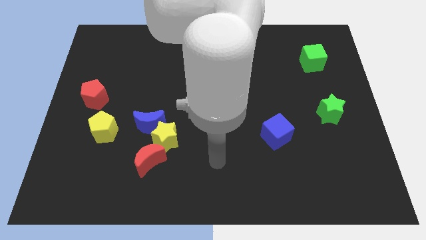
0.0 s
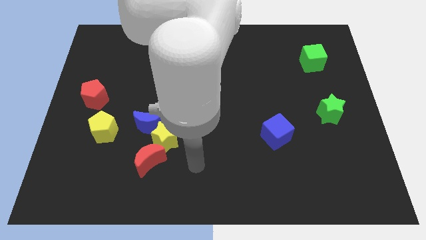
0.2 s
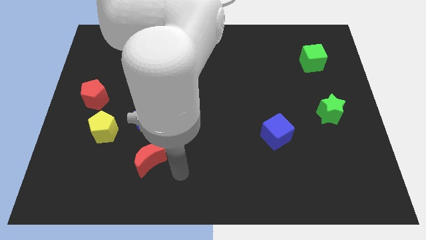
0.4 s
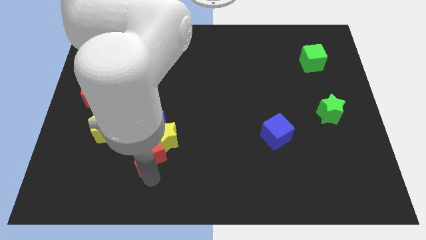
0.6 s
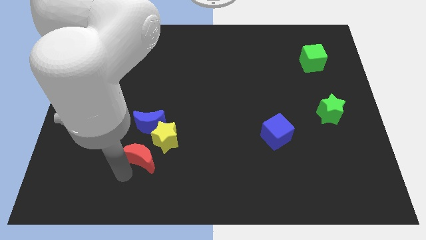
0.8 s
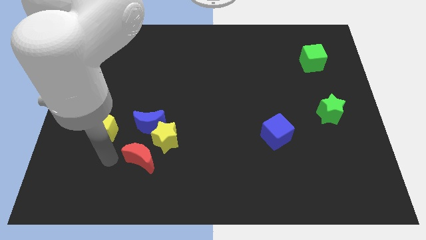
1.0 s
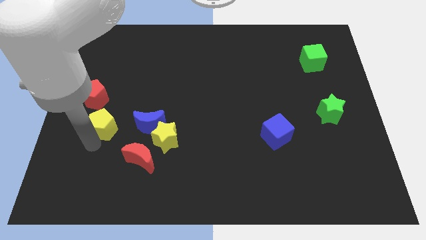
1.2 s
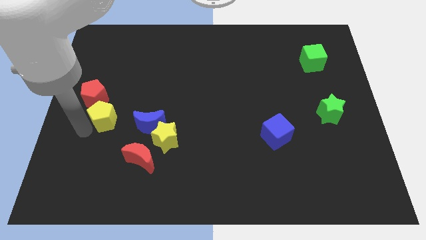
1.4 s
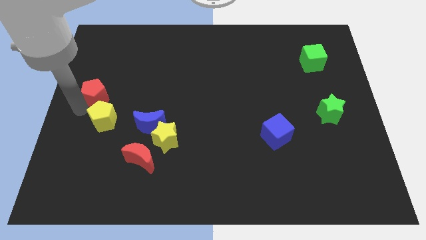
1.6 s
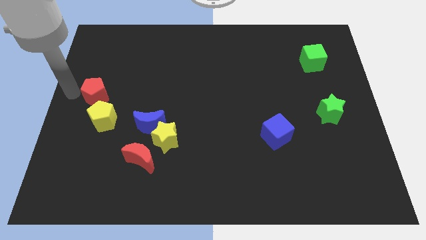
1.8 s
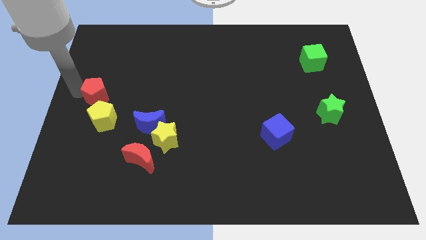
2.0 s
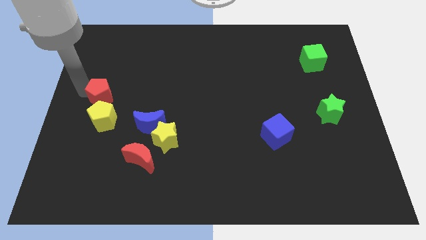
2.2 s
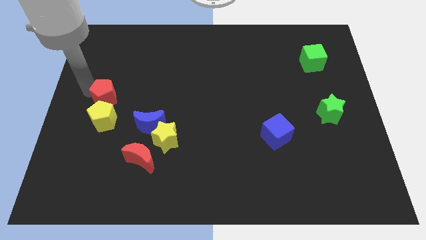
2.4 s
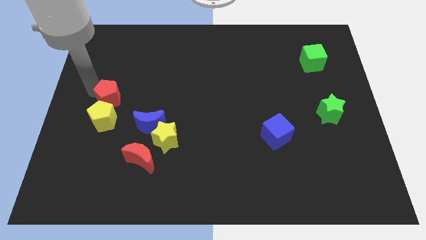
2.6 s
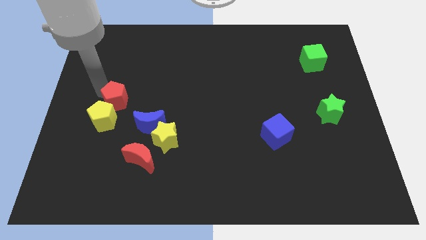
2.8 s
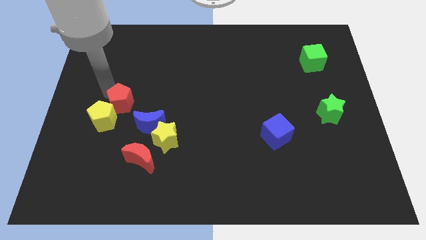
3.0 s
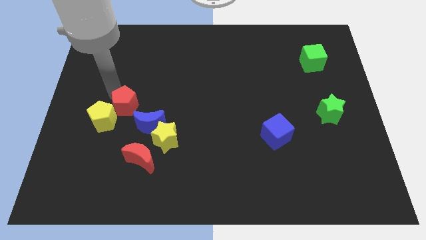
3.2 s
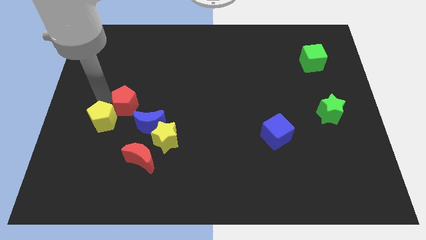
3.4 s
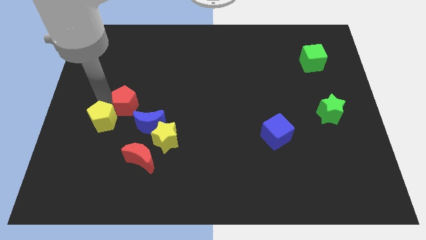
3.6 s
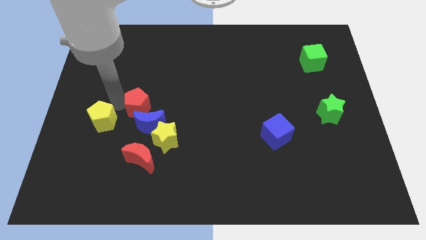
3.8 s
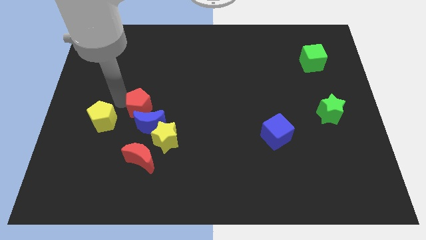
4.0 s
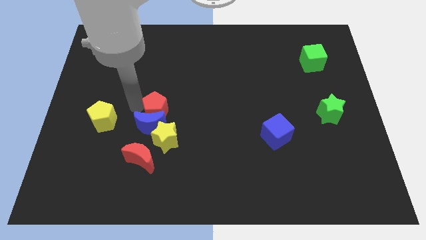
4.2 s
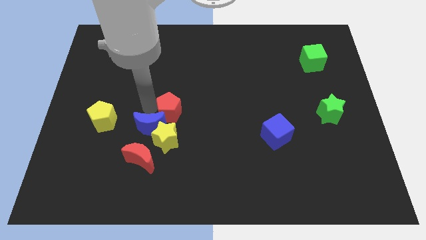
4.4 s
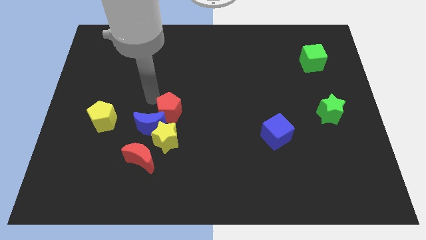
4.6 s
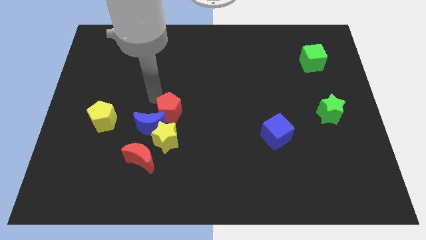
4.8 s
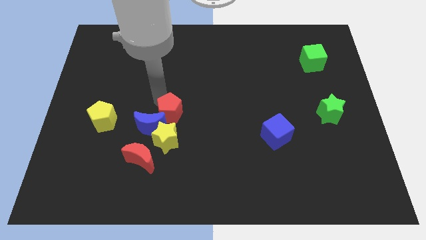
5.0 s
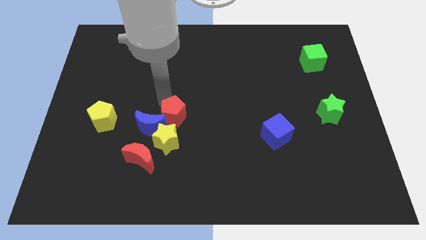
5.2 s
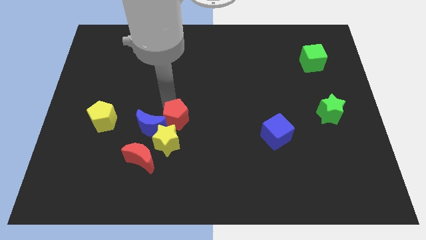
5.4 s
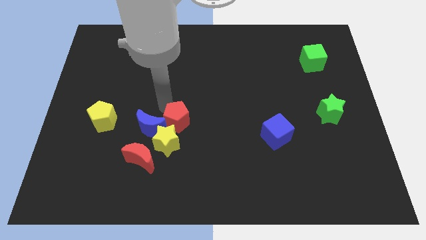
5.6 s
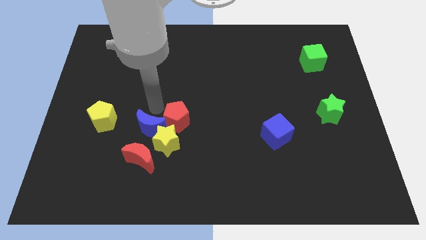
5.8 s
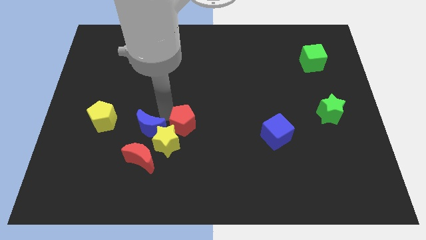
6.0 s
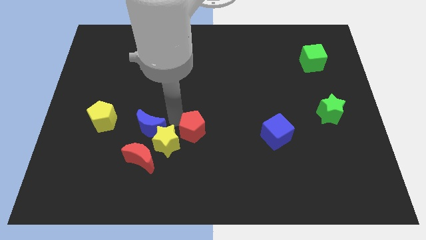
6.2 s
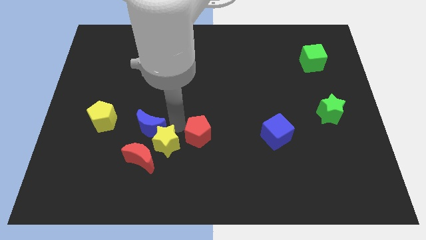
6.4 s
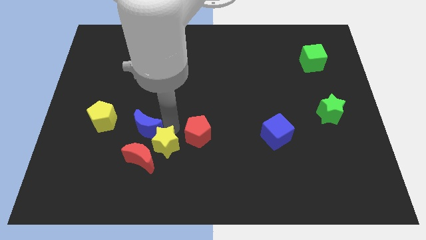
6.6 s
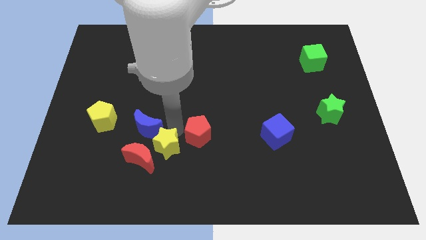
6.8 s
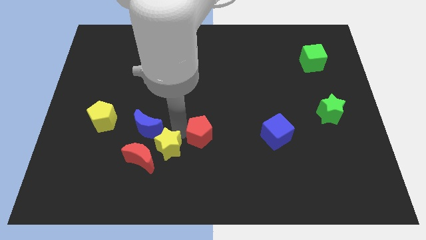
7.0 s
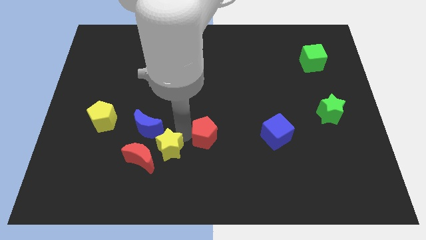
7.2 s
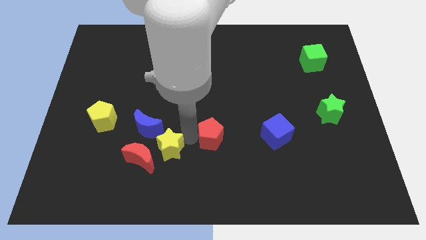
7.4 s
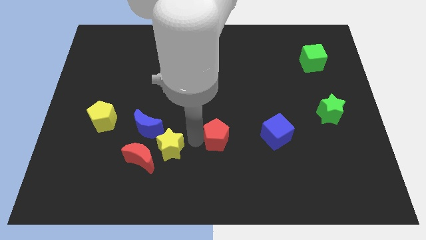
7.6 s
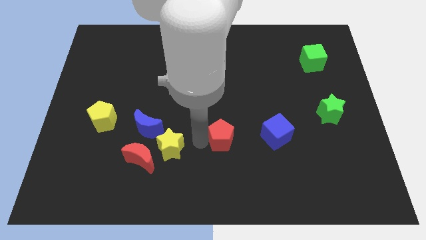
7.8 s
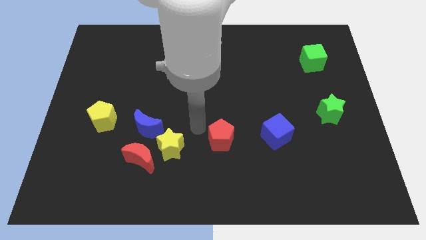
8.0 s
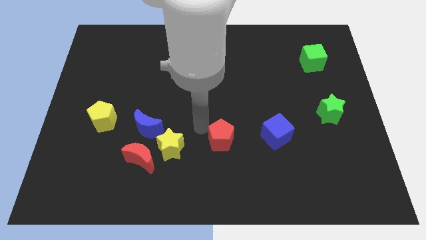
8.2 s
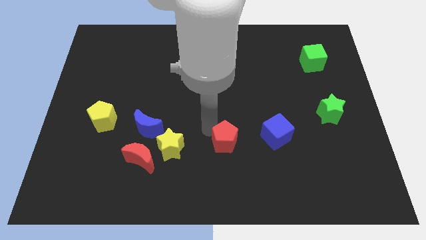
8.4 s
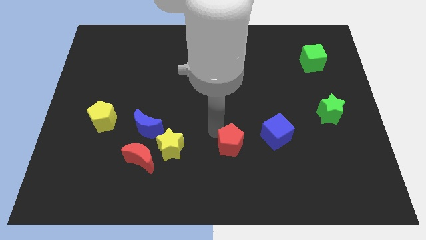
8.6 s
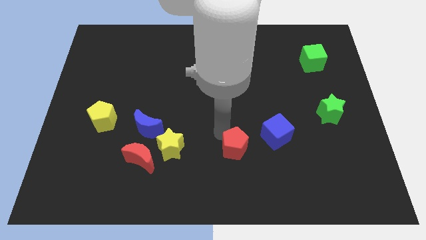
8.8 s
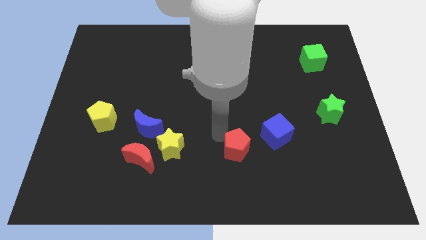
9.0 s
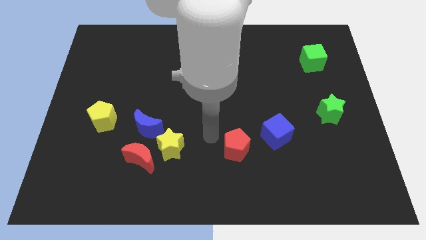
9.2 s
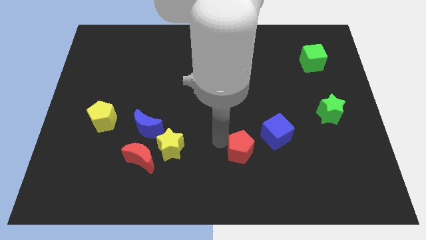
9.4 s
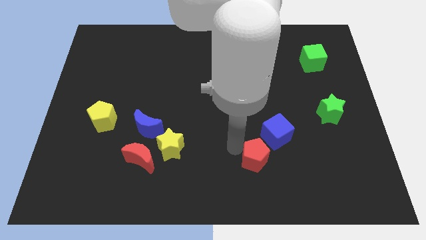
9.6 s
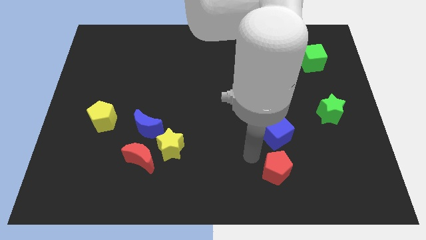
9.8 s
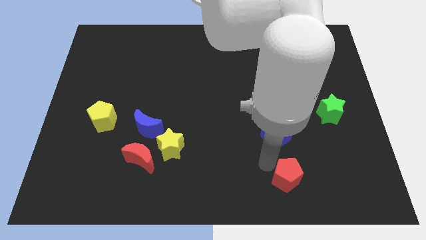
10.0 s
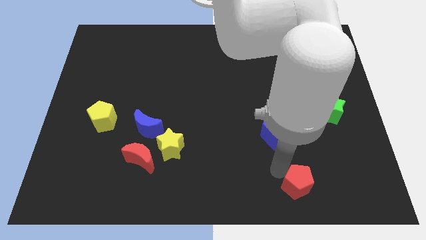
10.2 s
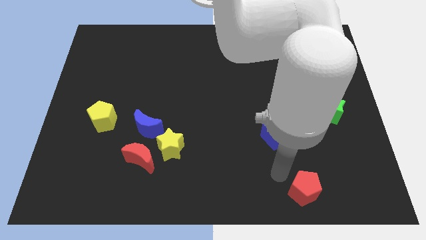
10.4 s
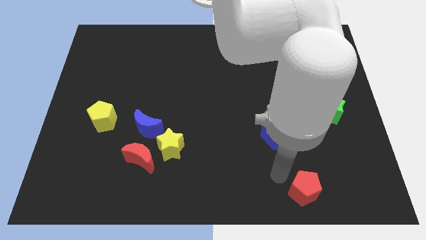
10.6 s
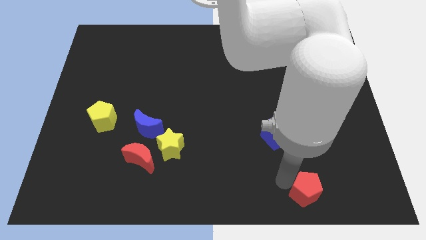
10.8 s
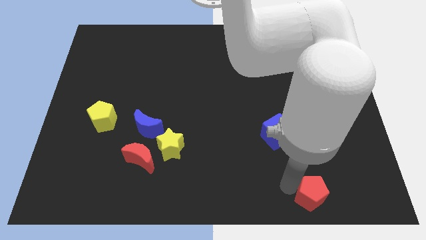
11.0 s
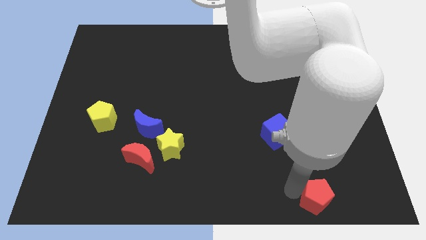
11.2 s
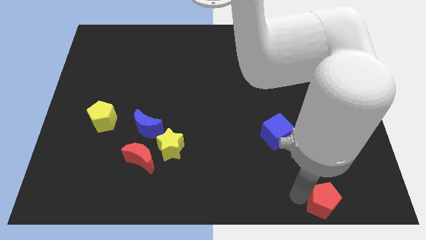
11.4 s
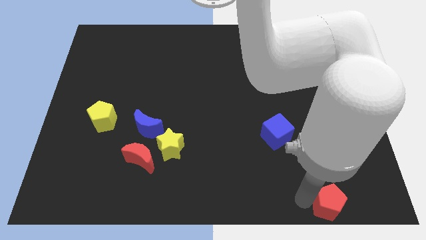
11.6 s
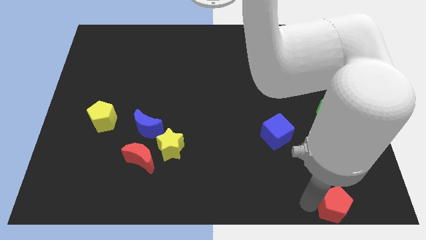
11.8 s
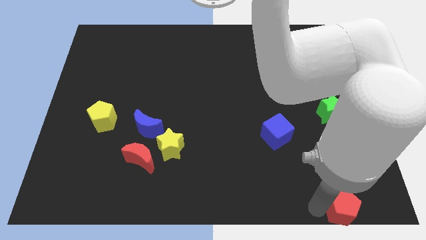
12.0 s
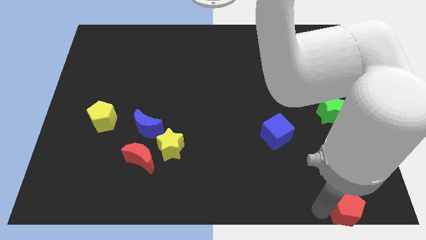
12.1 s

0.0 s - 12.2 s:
push the red pentagon to the bottom right of the board

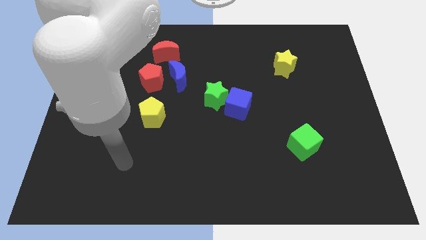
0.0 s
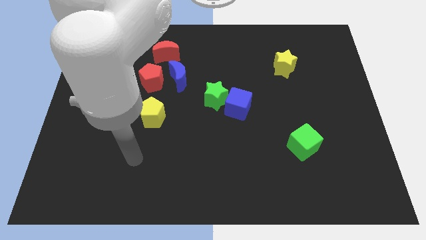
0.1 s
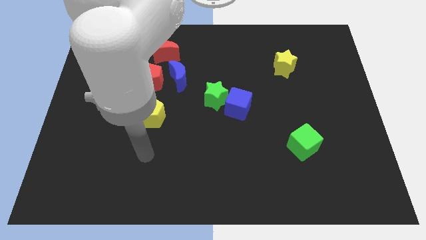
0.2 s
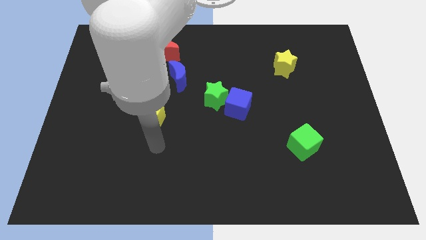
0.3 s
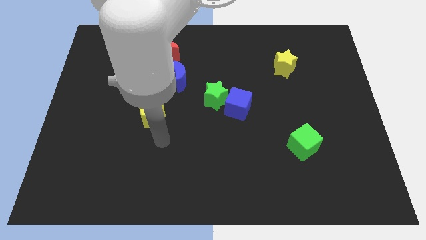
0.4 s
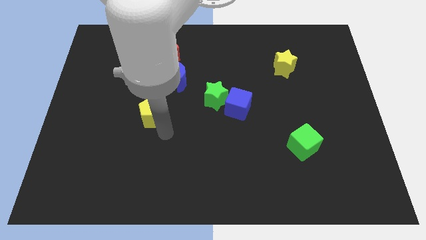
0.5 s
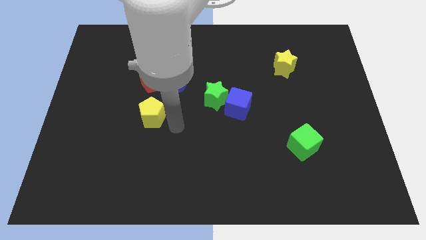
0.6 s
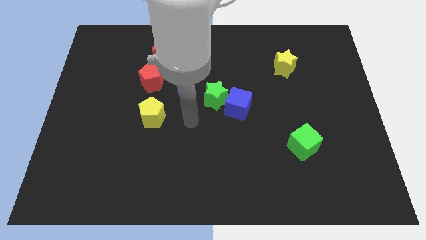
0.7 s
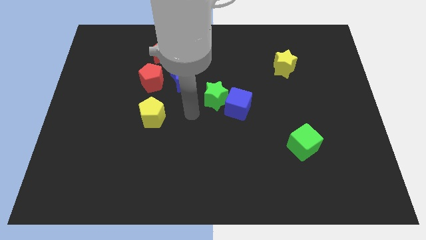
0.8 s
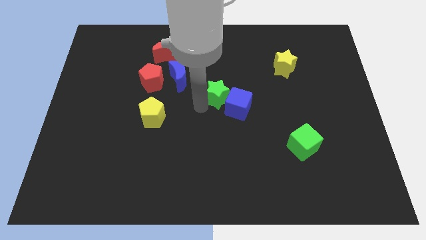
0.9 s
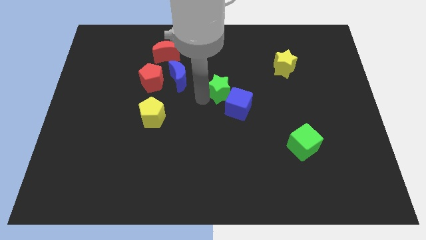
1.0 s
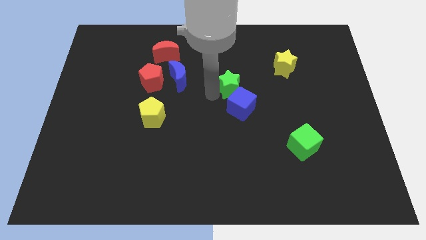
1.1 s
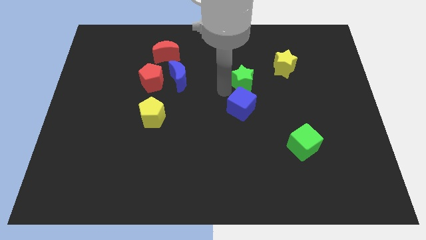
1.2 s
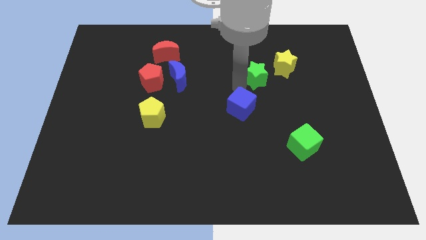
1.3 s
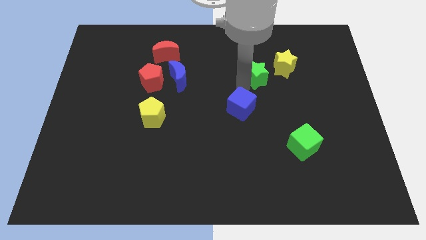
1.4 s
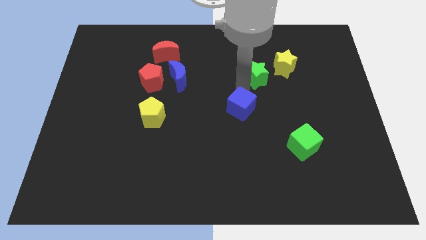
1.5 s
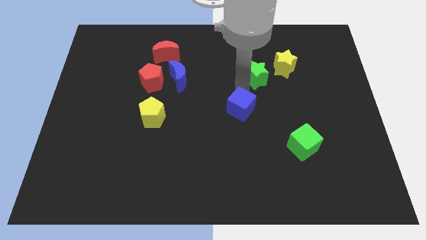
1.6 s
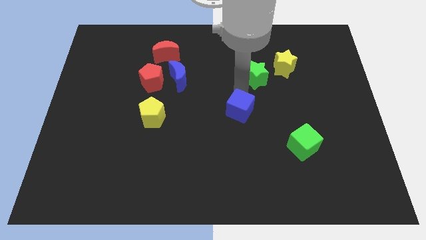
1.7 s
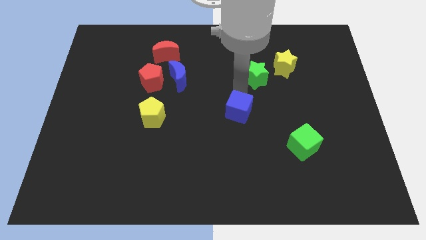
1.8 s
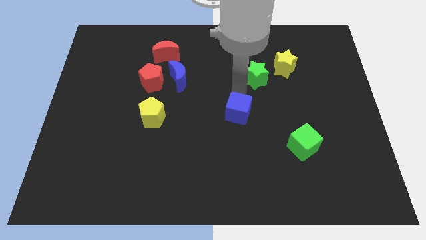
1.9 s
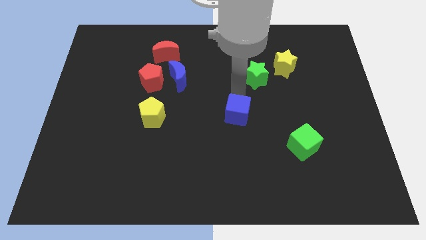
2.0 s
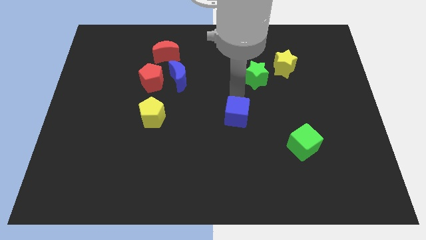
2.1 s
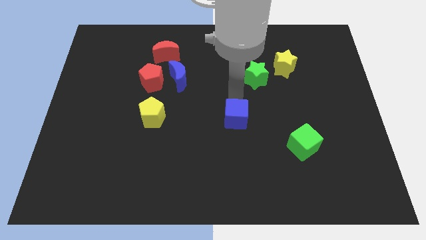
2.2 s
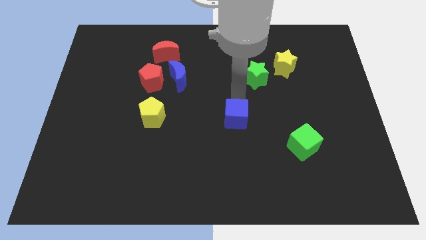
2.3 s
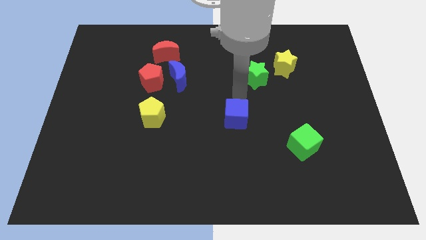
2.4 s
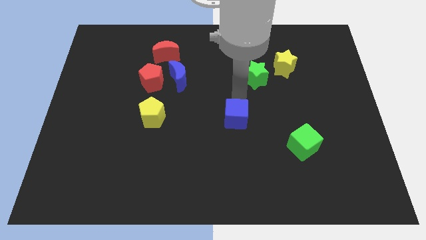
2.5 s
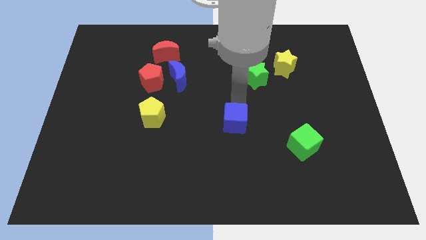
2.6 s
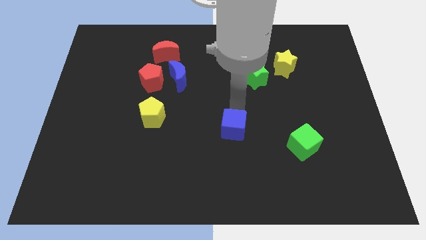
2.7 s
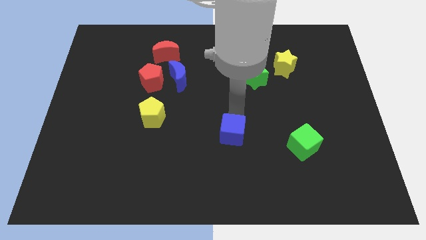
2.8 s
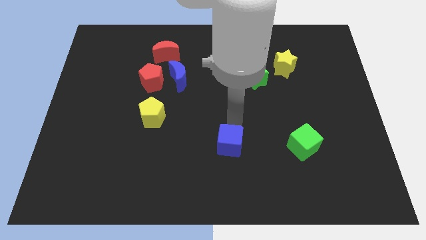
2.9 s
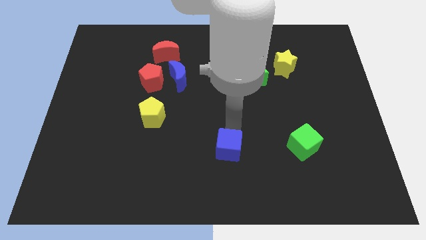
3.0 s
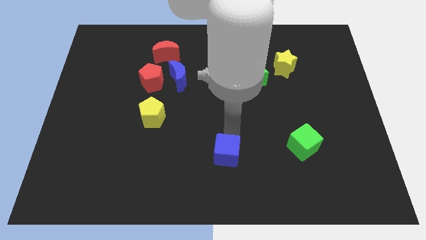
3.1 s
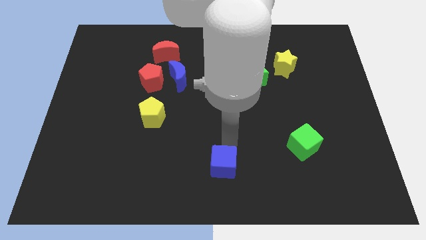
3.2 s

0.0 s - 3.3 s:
move the blue cube to the bottom
